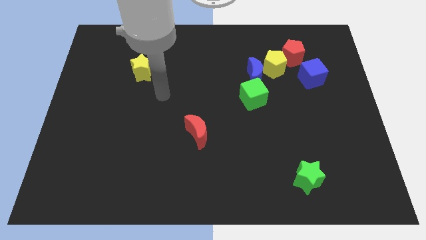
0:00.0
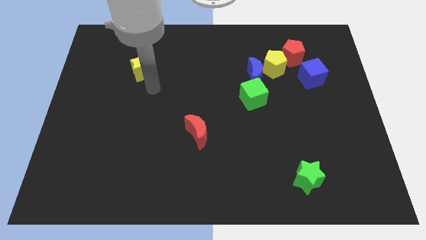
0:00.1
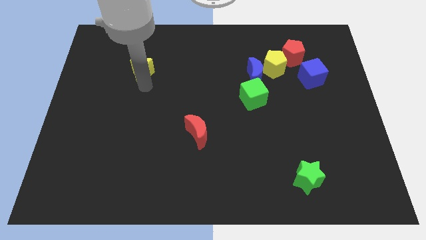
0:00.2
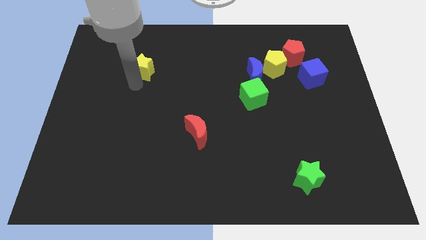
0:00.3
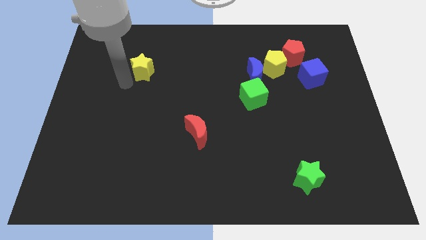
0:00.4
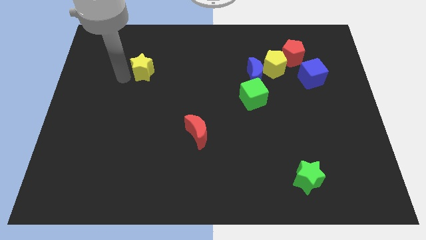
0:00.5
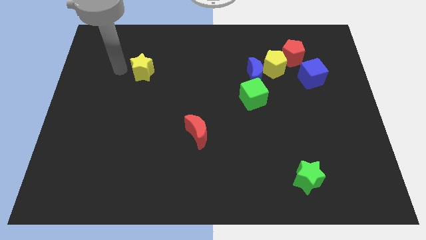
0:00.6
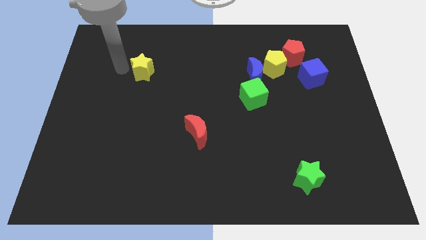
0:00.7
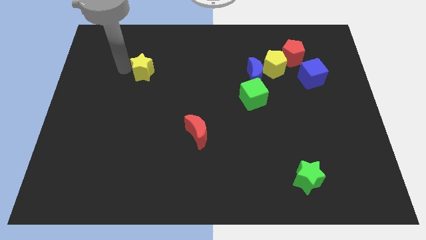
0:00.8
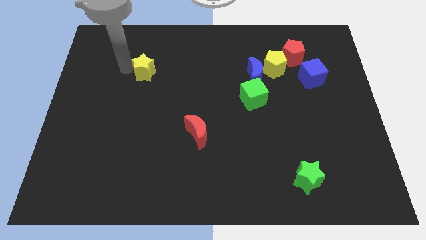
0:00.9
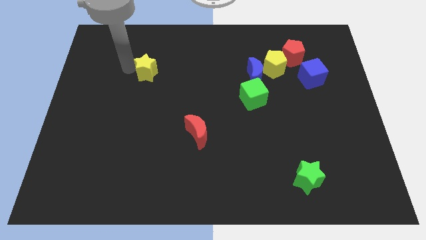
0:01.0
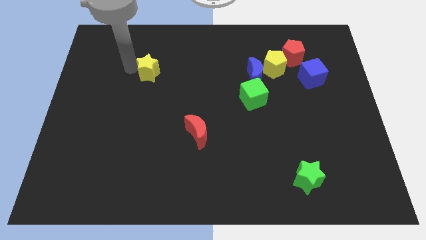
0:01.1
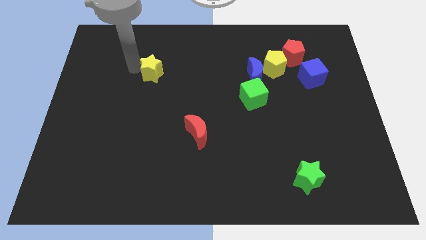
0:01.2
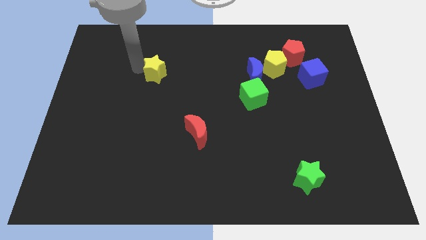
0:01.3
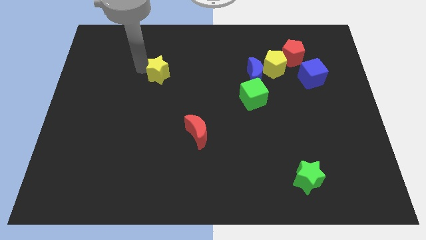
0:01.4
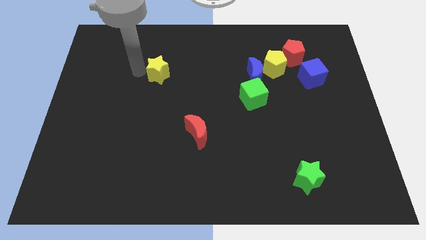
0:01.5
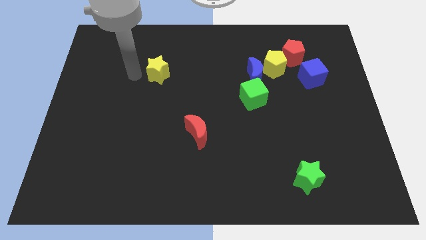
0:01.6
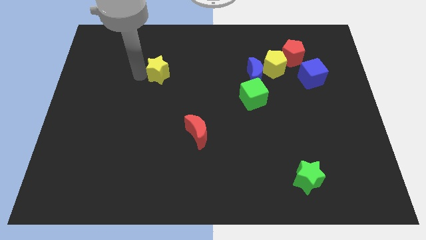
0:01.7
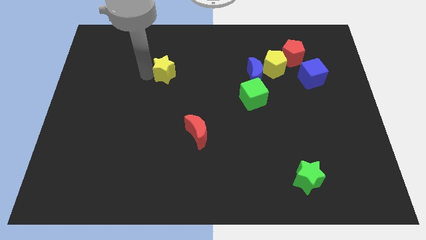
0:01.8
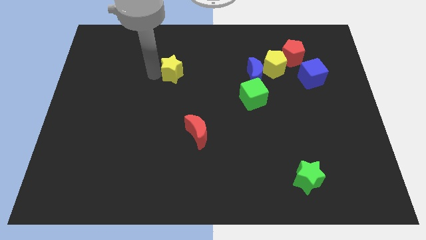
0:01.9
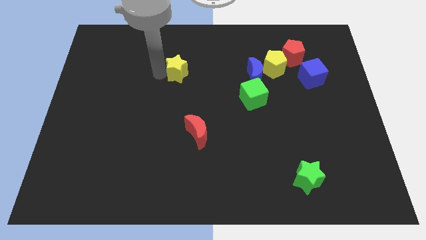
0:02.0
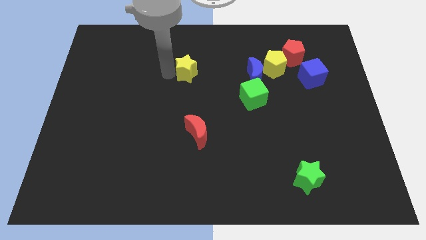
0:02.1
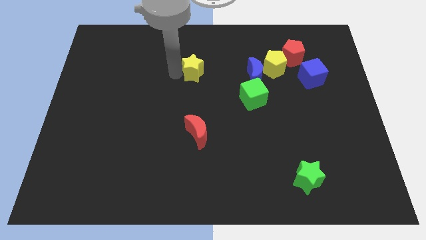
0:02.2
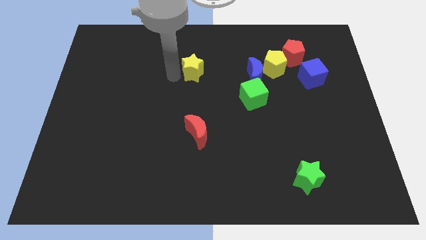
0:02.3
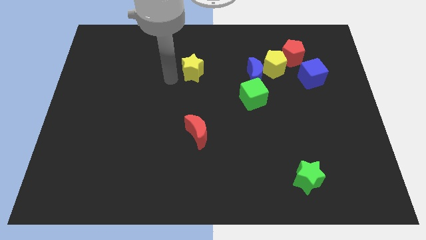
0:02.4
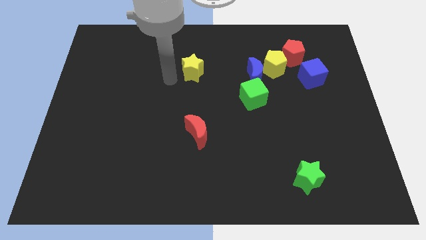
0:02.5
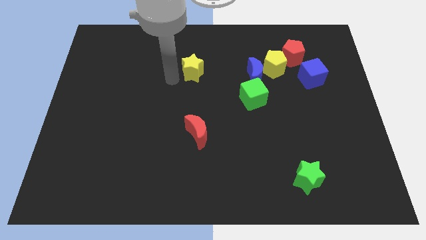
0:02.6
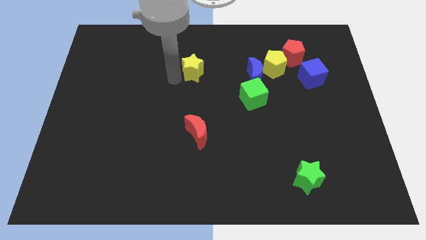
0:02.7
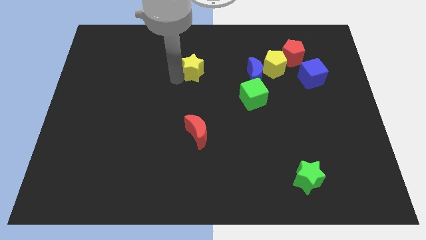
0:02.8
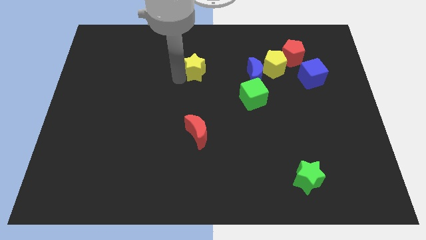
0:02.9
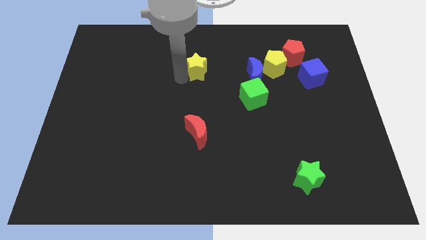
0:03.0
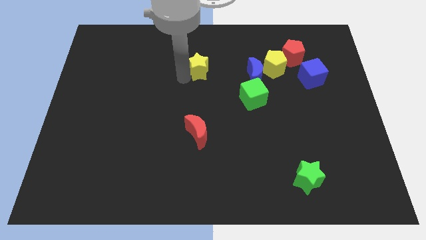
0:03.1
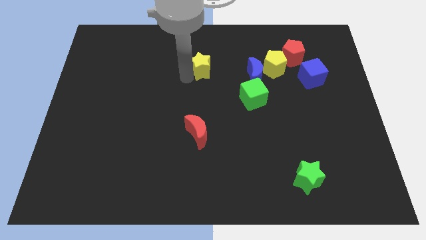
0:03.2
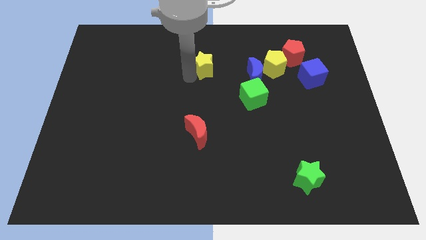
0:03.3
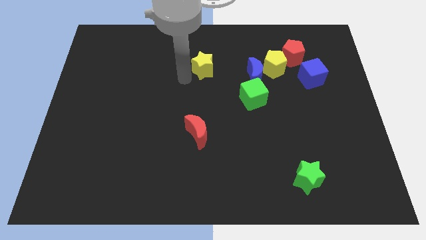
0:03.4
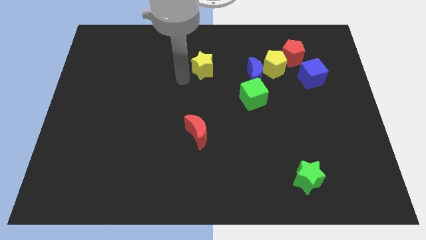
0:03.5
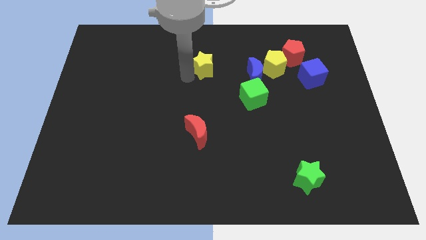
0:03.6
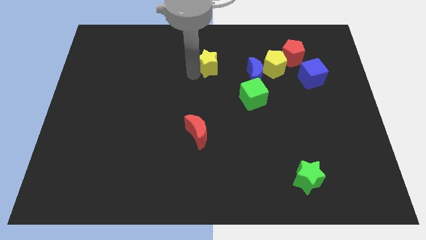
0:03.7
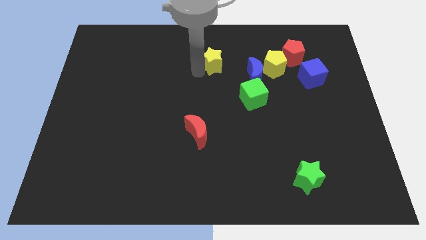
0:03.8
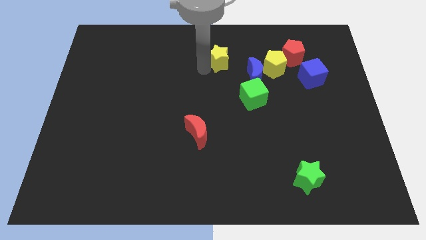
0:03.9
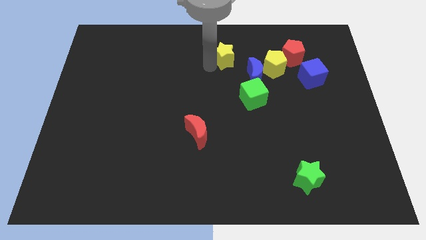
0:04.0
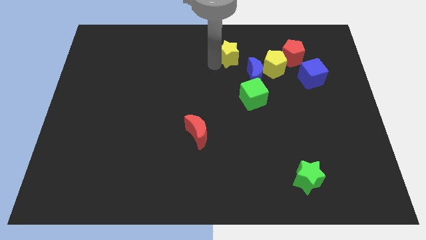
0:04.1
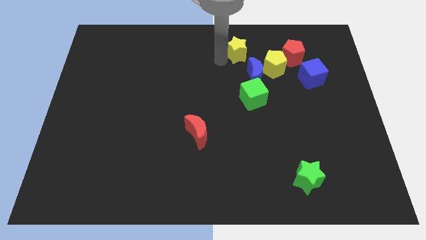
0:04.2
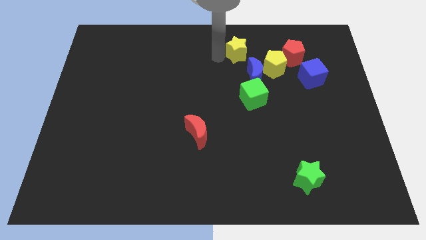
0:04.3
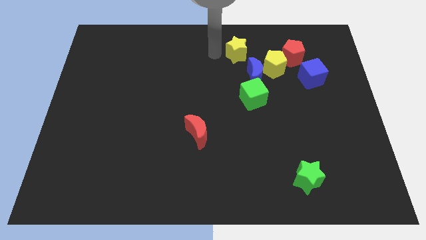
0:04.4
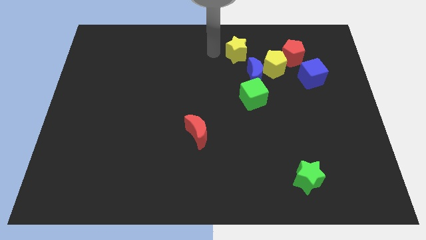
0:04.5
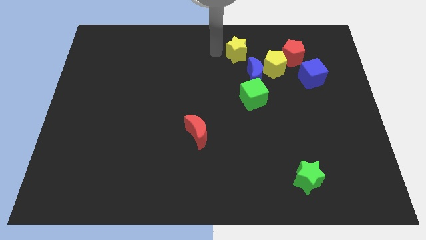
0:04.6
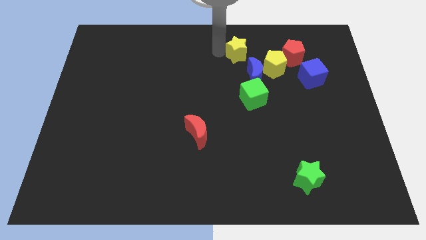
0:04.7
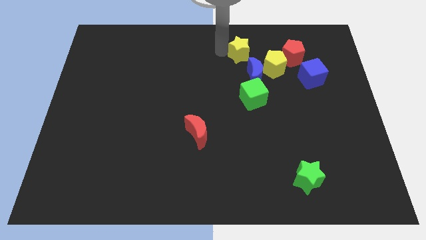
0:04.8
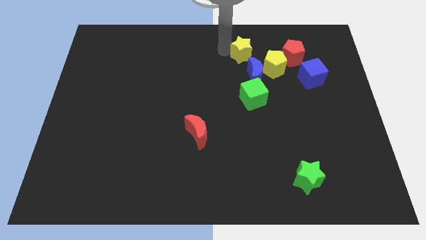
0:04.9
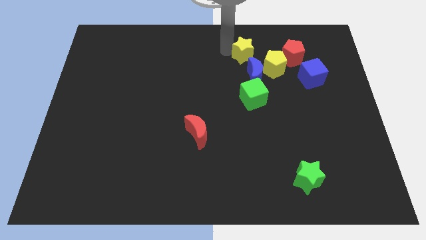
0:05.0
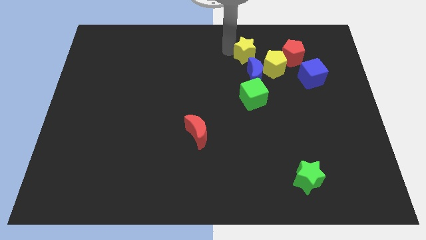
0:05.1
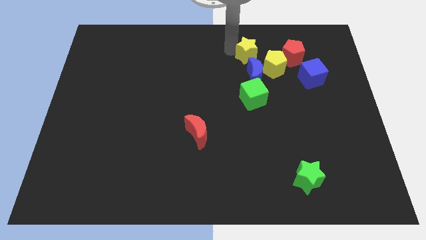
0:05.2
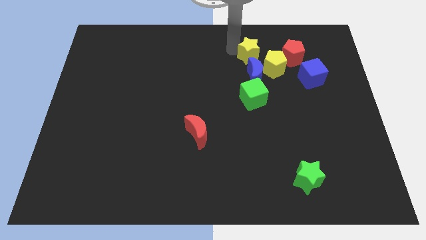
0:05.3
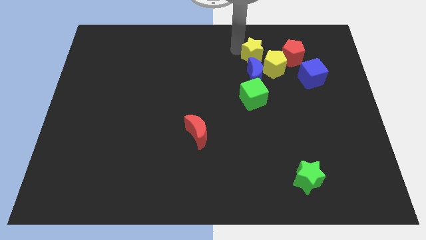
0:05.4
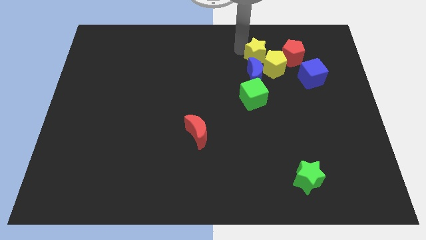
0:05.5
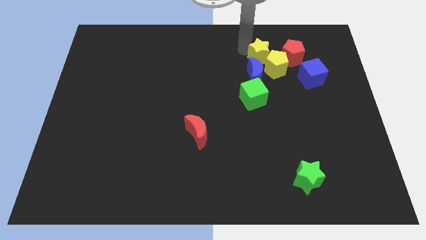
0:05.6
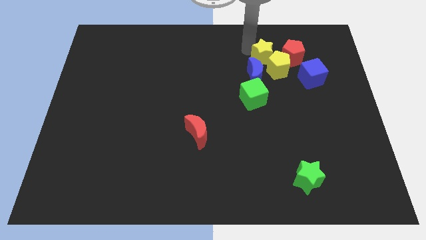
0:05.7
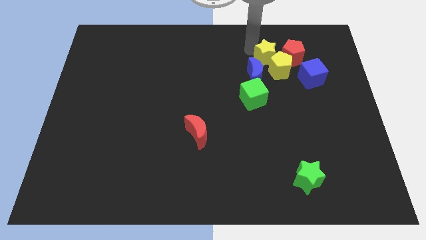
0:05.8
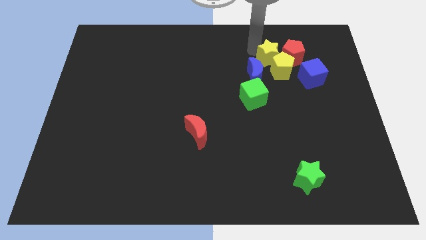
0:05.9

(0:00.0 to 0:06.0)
move the yellow star towards the red pentagon
